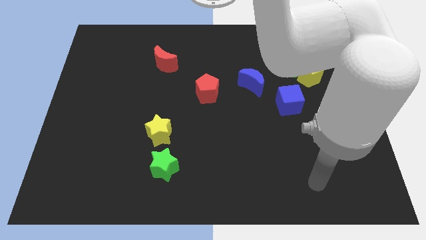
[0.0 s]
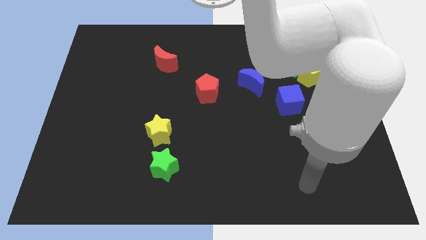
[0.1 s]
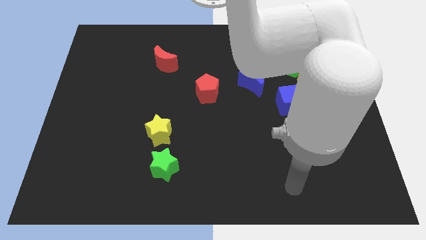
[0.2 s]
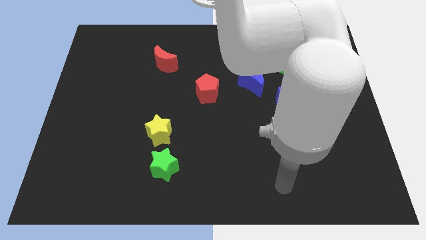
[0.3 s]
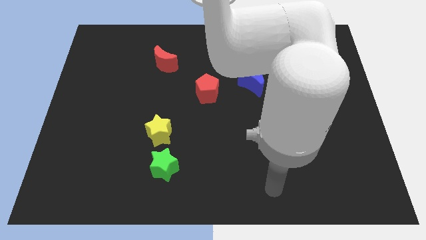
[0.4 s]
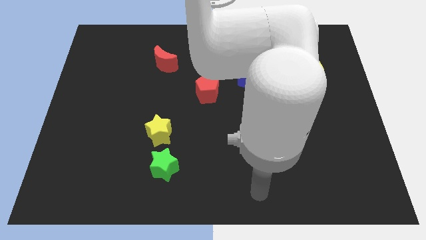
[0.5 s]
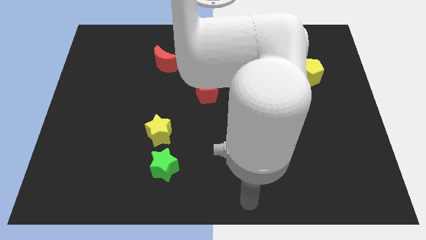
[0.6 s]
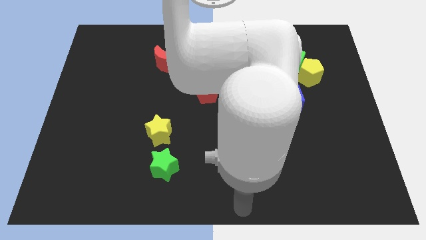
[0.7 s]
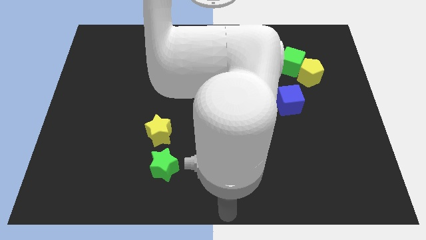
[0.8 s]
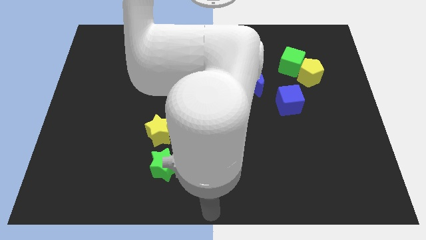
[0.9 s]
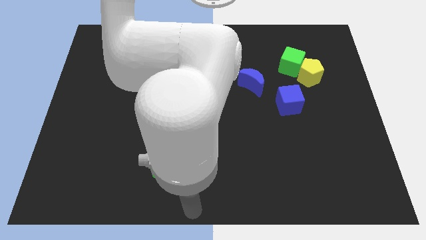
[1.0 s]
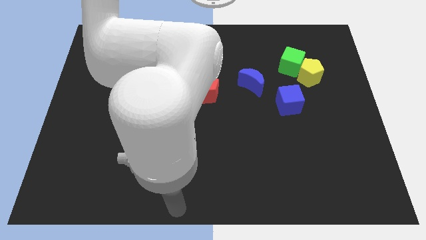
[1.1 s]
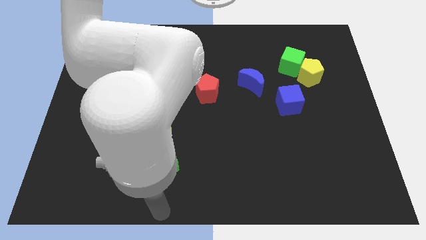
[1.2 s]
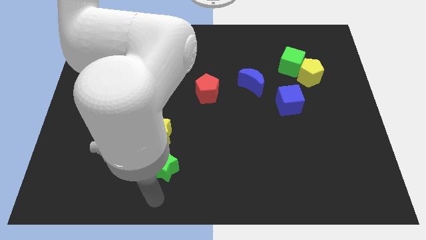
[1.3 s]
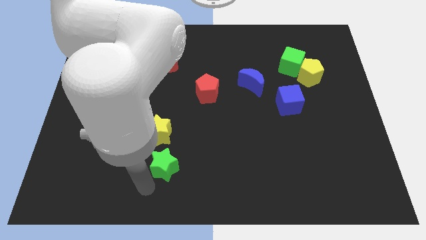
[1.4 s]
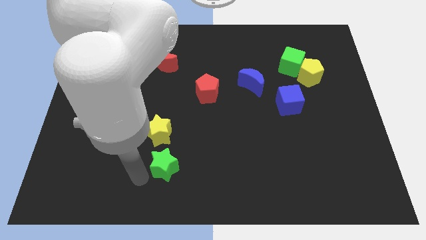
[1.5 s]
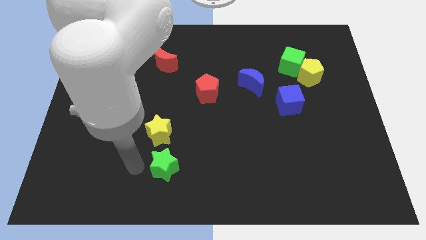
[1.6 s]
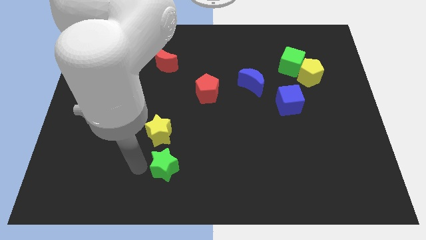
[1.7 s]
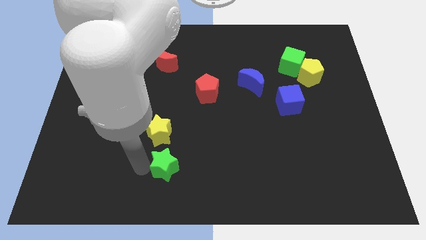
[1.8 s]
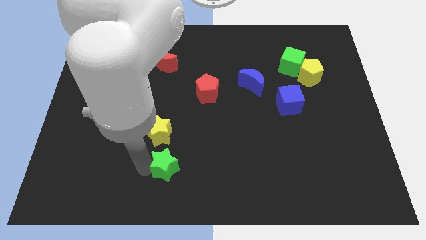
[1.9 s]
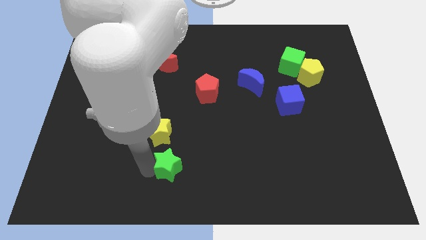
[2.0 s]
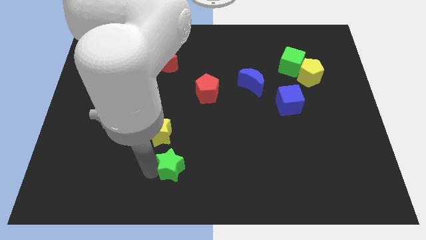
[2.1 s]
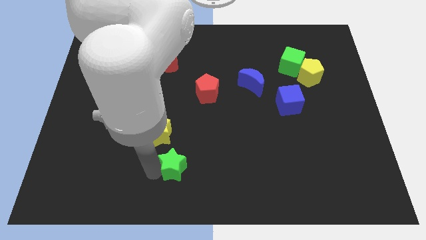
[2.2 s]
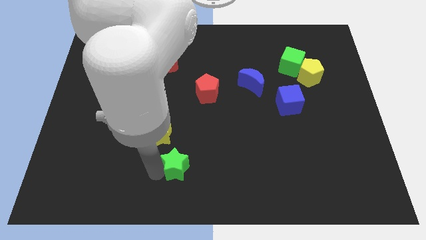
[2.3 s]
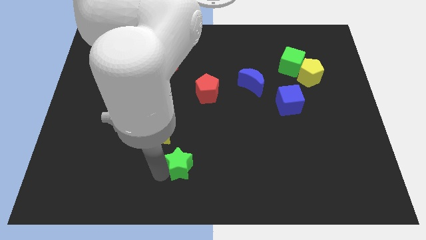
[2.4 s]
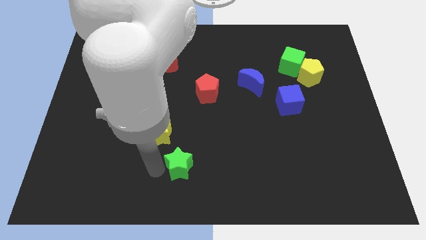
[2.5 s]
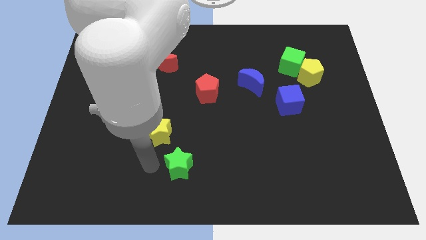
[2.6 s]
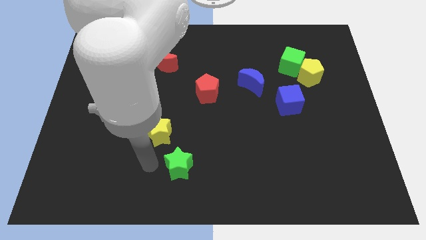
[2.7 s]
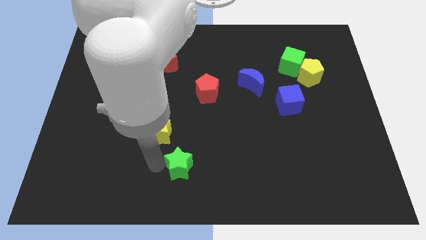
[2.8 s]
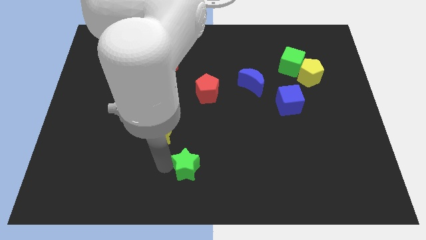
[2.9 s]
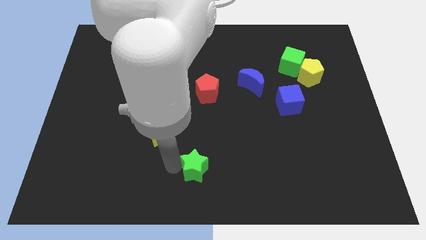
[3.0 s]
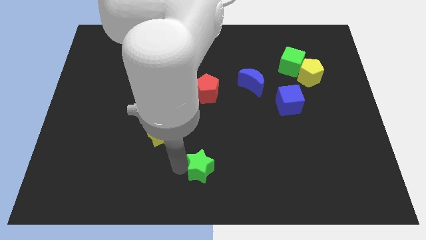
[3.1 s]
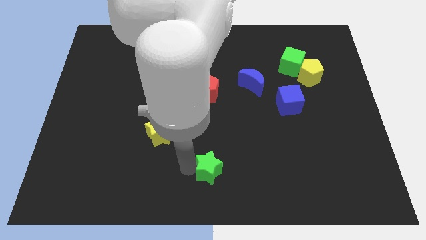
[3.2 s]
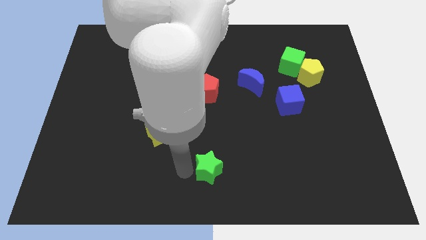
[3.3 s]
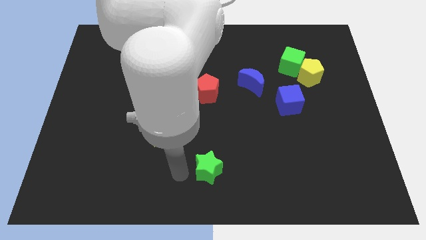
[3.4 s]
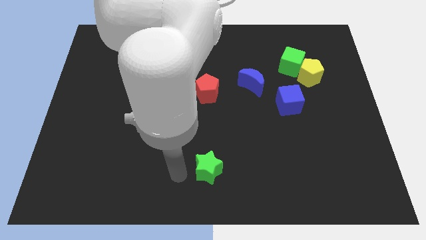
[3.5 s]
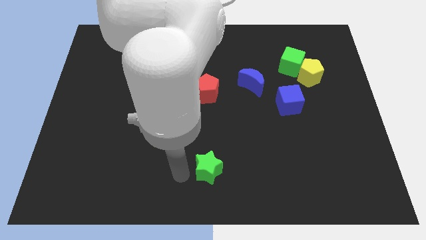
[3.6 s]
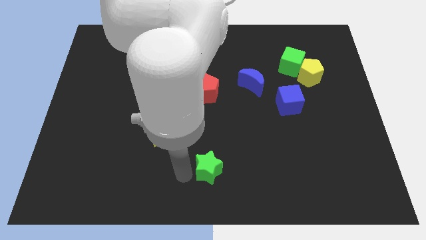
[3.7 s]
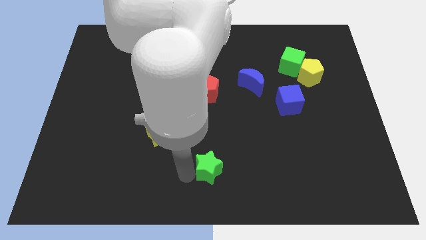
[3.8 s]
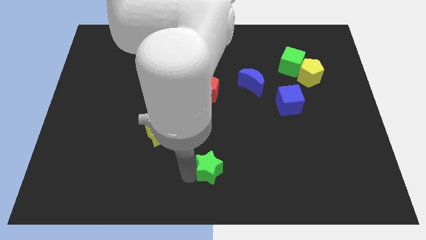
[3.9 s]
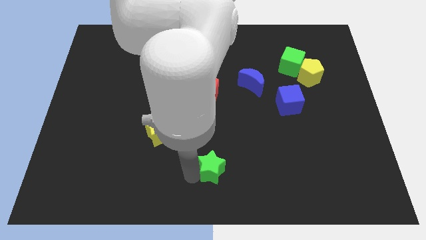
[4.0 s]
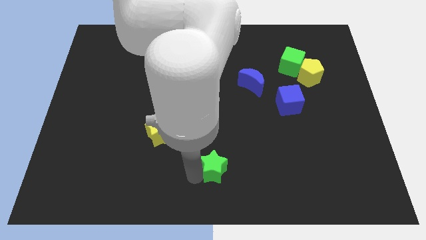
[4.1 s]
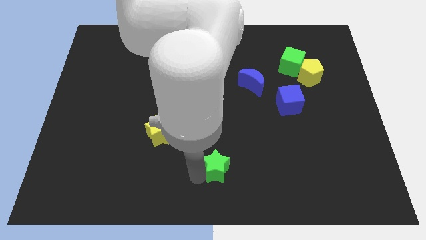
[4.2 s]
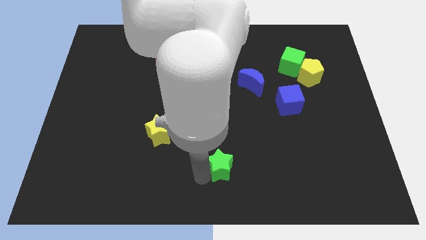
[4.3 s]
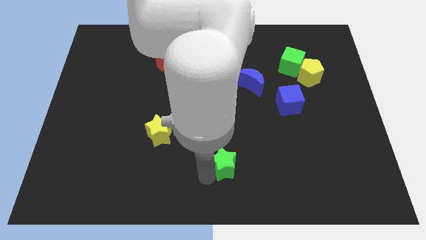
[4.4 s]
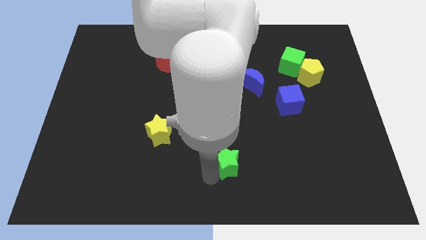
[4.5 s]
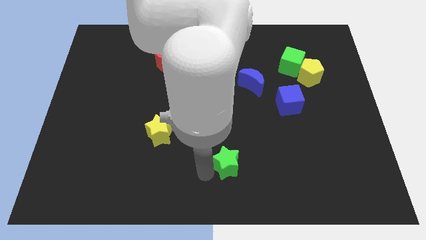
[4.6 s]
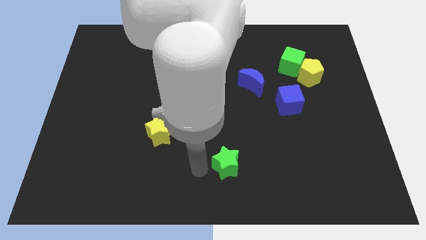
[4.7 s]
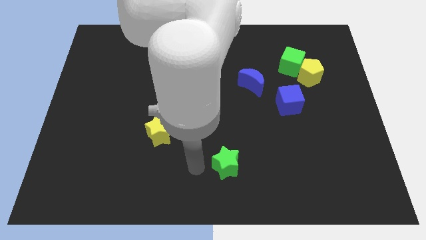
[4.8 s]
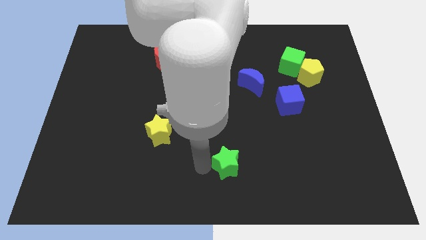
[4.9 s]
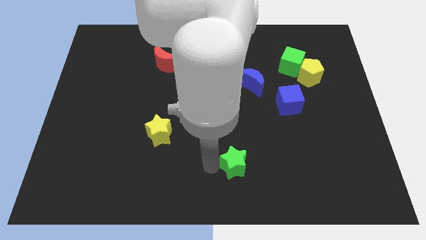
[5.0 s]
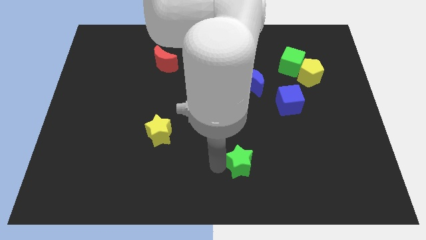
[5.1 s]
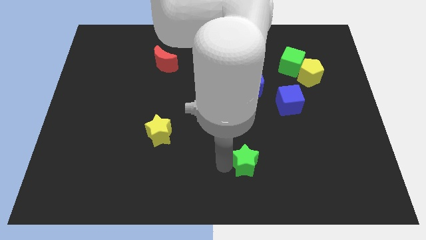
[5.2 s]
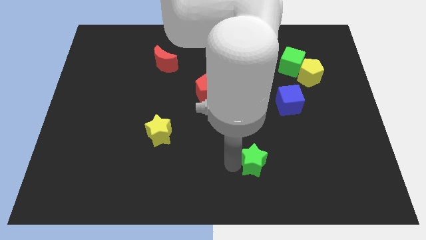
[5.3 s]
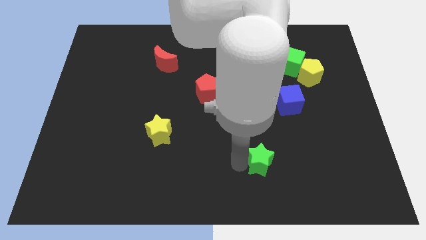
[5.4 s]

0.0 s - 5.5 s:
slide the green star right

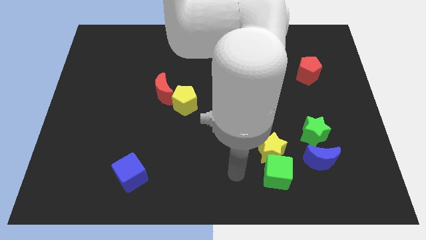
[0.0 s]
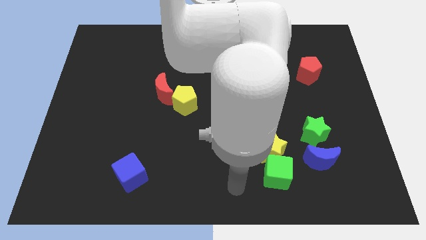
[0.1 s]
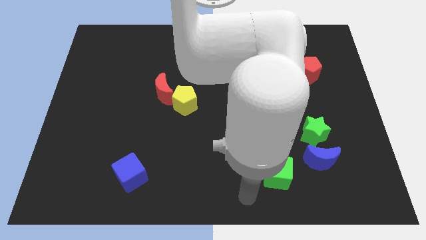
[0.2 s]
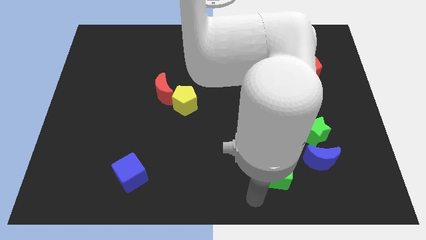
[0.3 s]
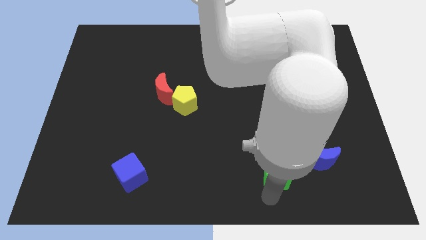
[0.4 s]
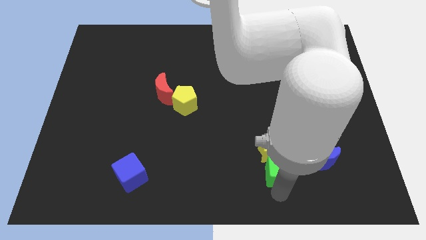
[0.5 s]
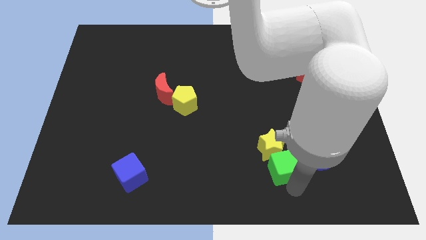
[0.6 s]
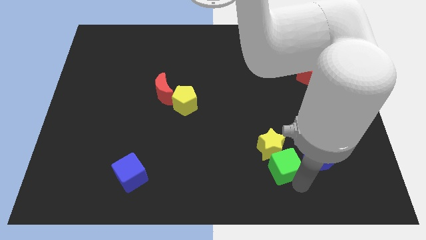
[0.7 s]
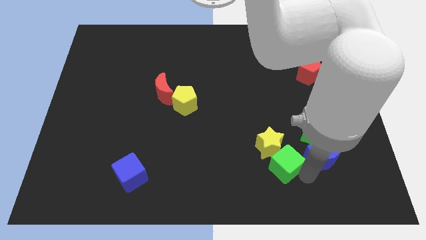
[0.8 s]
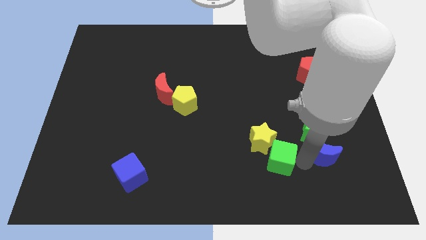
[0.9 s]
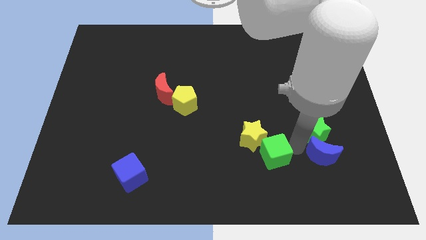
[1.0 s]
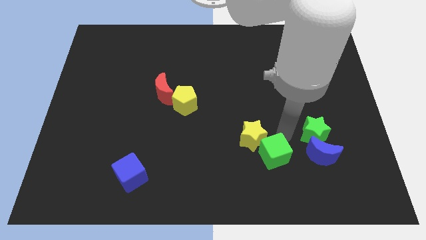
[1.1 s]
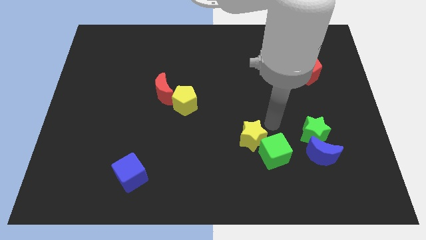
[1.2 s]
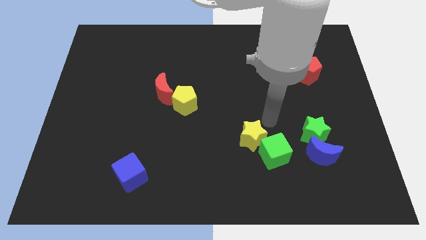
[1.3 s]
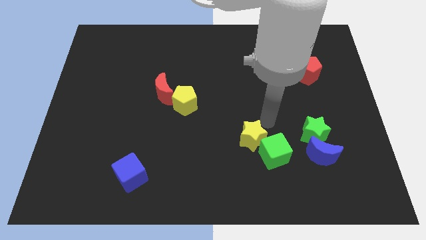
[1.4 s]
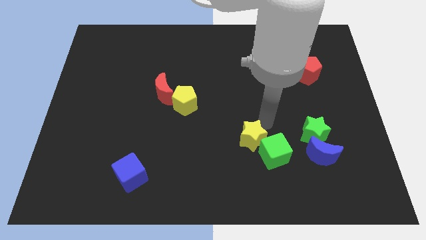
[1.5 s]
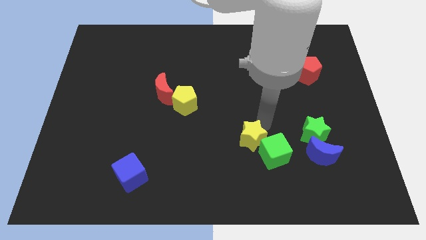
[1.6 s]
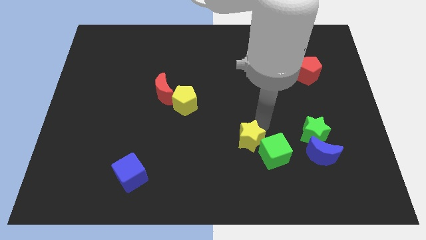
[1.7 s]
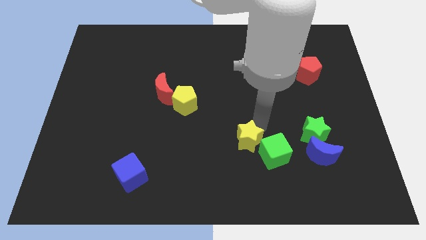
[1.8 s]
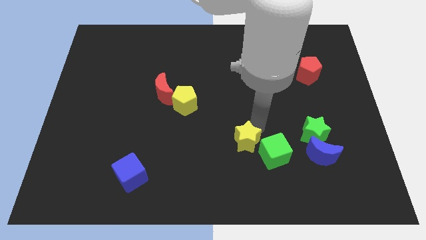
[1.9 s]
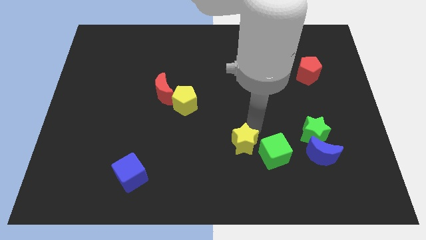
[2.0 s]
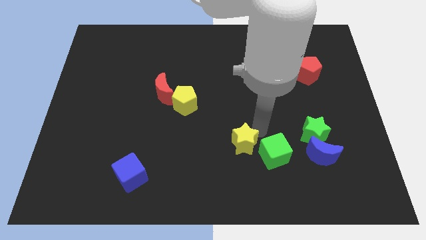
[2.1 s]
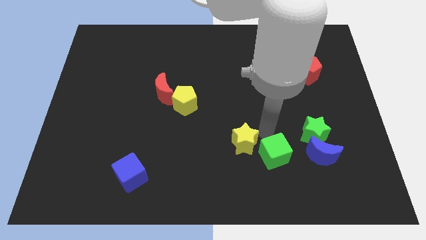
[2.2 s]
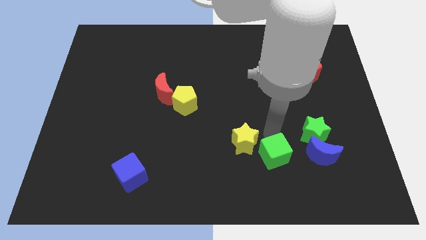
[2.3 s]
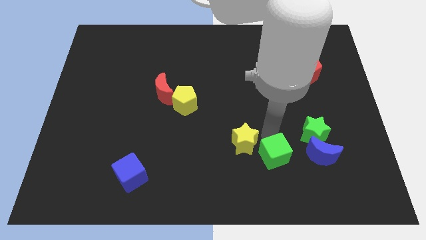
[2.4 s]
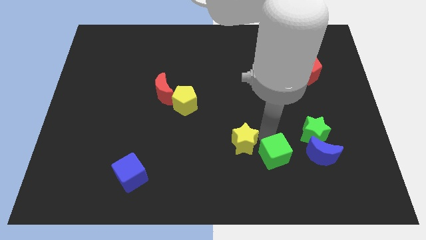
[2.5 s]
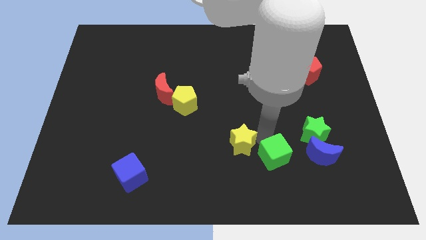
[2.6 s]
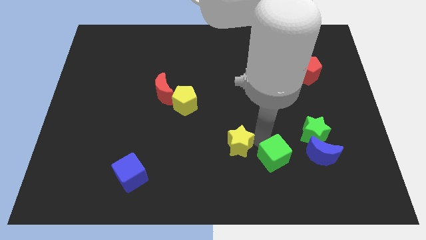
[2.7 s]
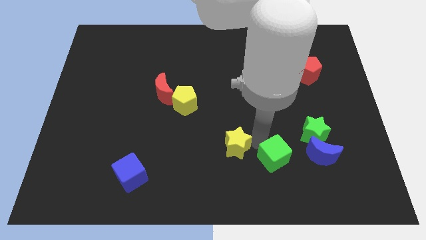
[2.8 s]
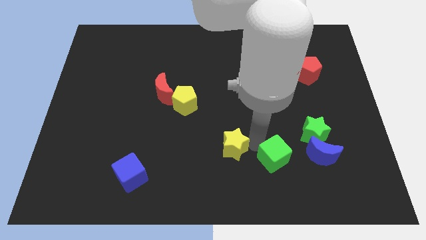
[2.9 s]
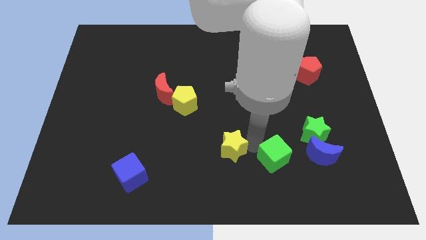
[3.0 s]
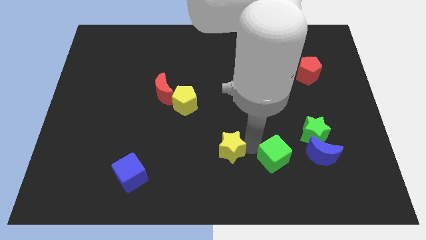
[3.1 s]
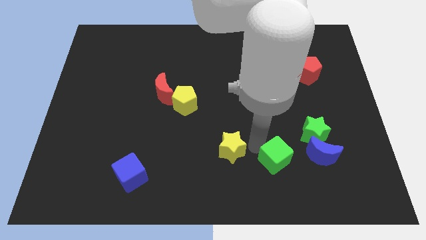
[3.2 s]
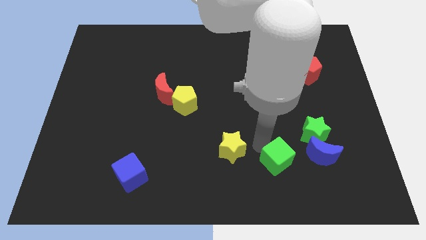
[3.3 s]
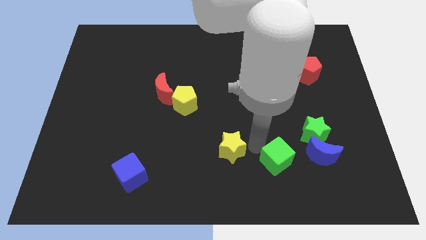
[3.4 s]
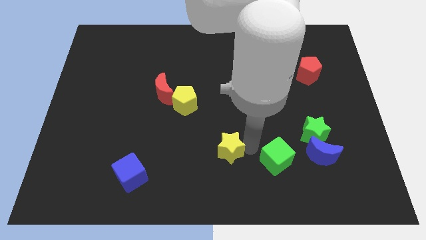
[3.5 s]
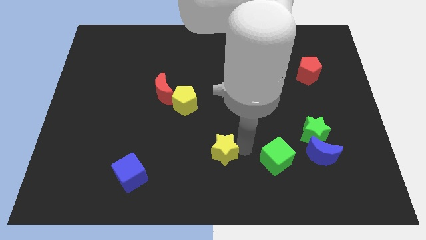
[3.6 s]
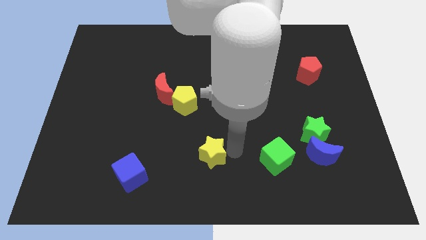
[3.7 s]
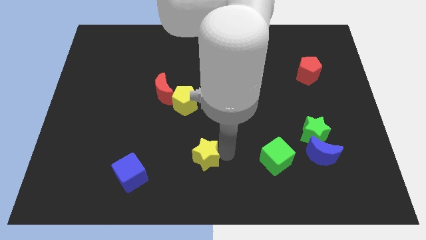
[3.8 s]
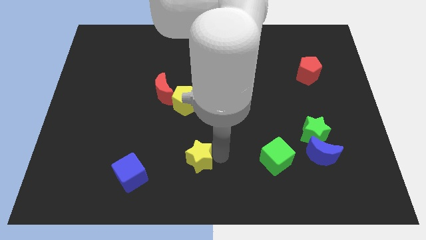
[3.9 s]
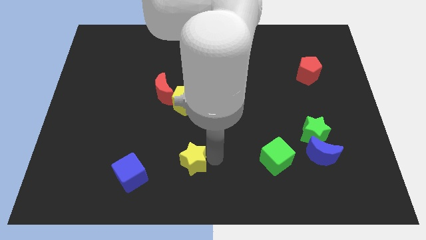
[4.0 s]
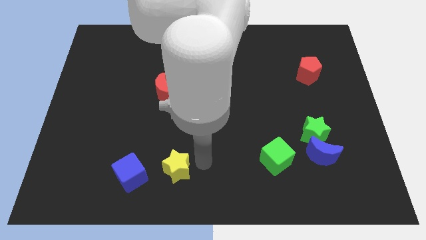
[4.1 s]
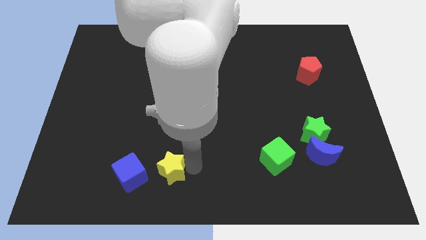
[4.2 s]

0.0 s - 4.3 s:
slide the yellow star to the left
